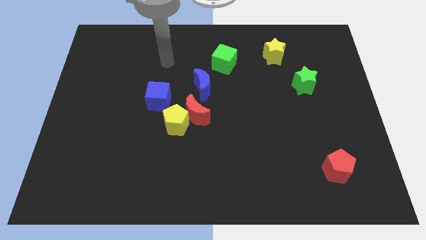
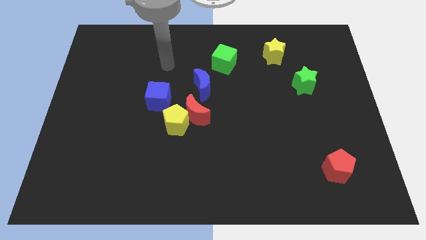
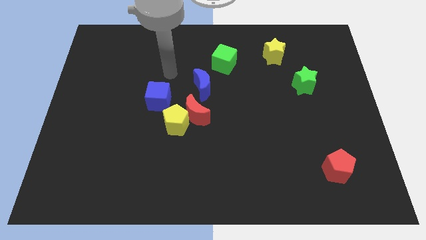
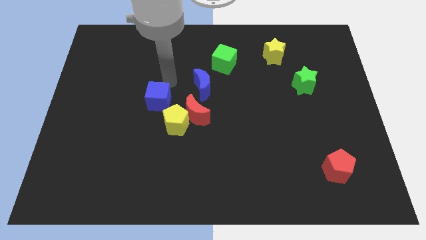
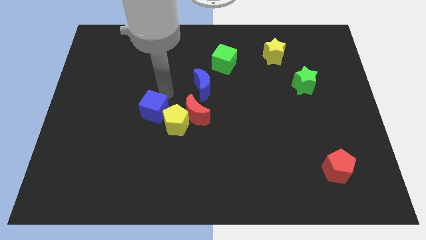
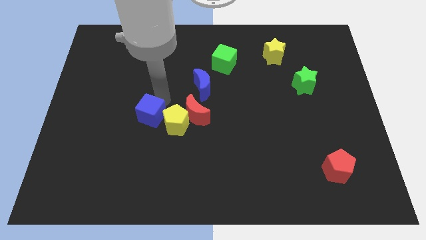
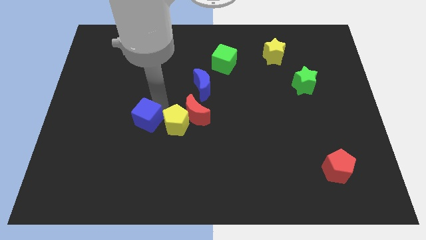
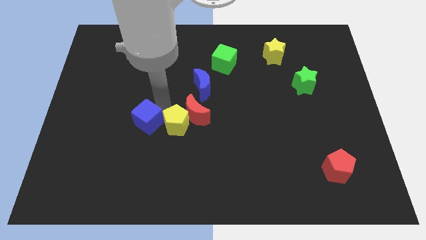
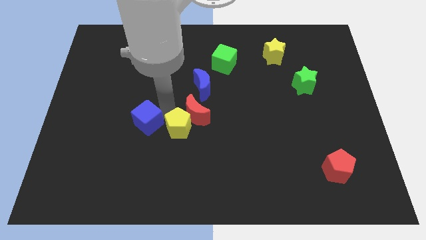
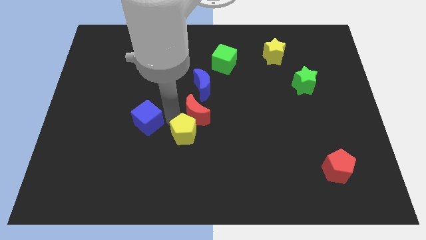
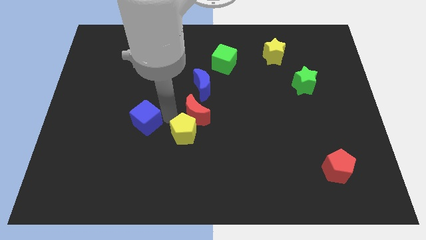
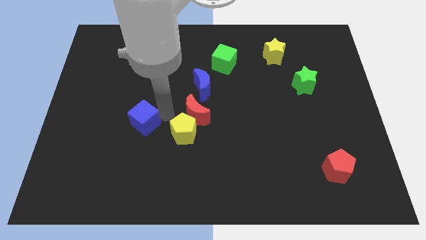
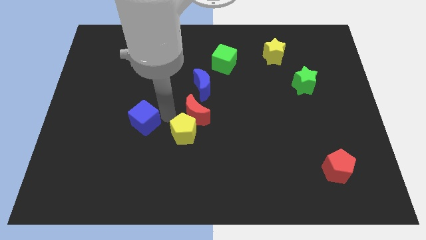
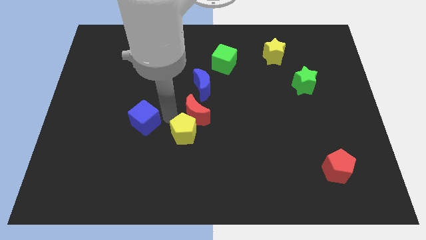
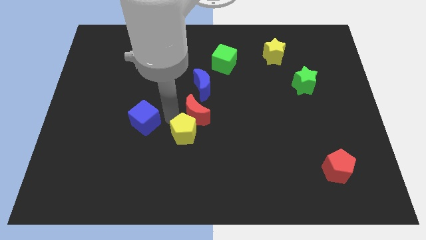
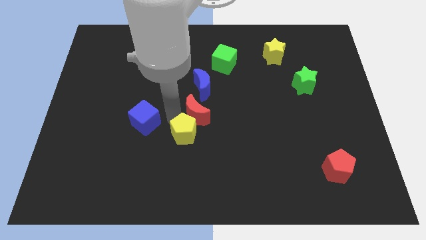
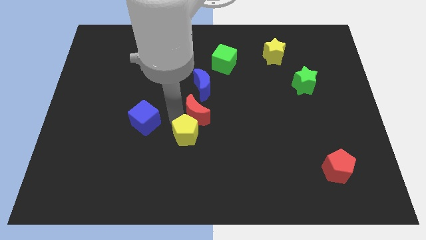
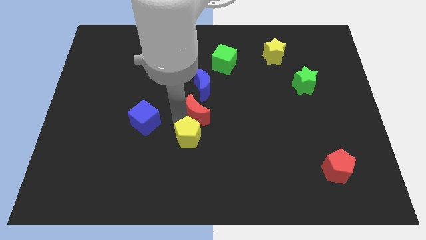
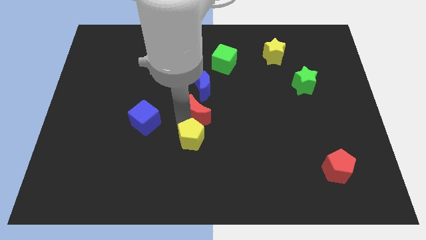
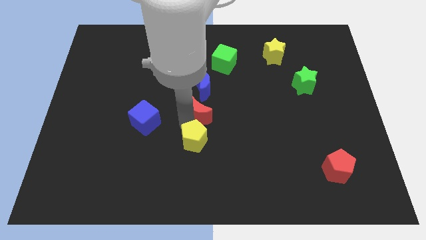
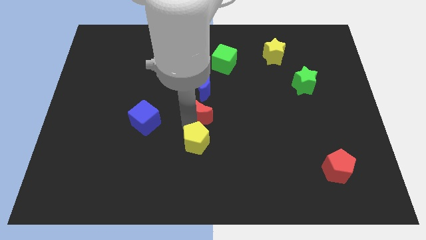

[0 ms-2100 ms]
slide the yellow pentagon downwards and right a little bit

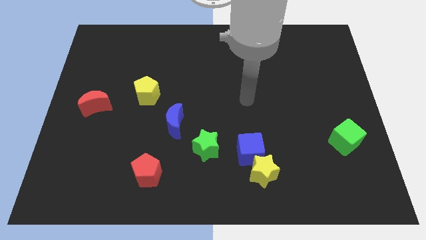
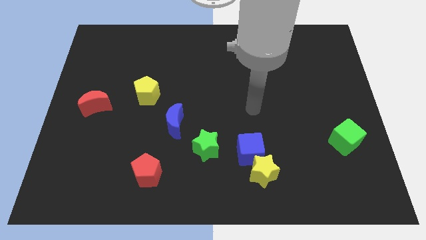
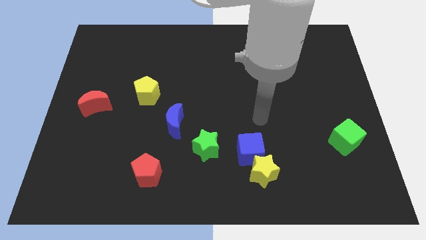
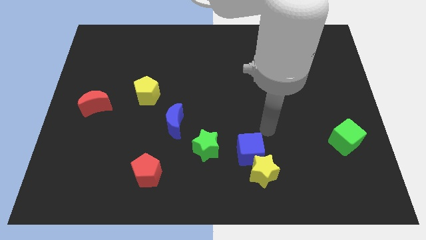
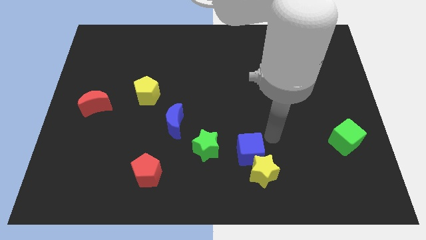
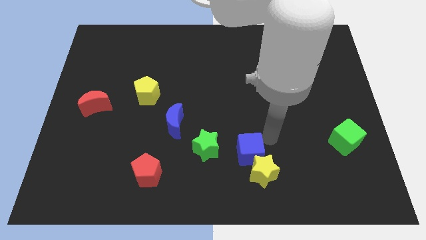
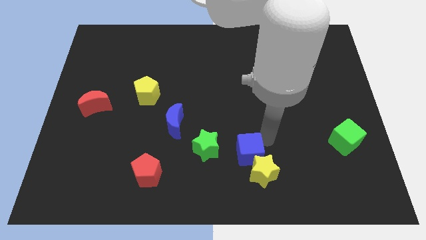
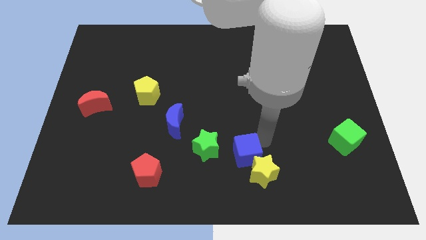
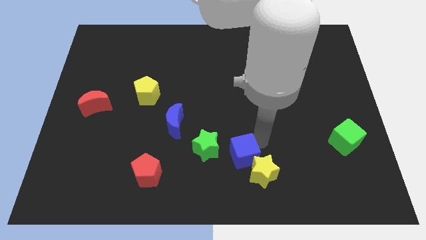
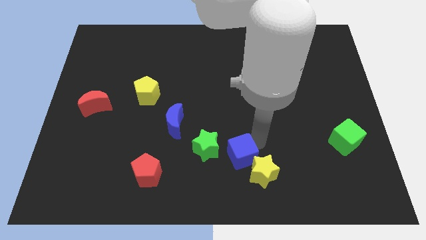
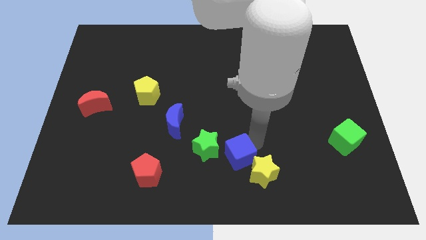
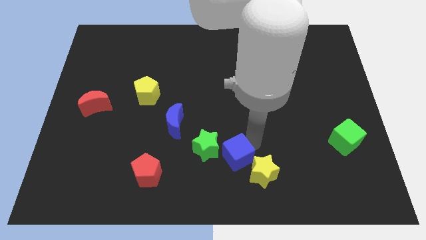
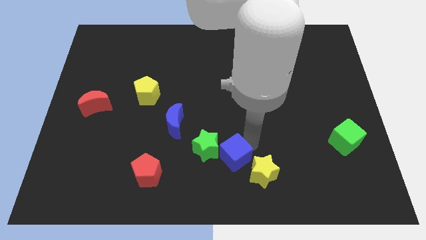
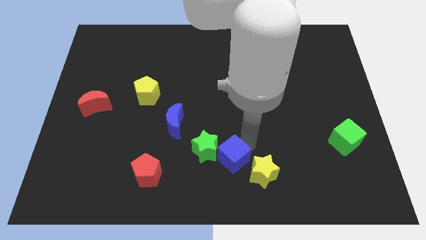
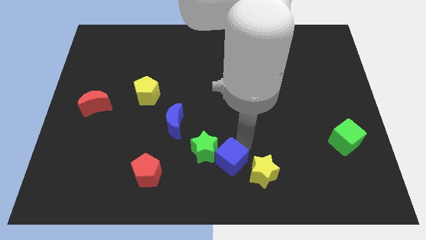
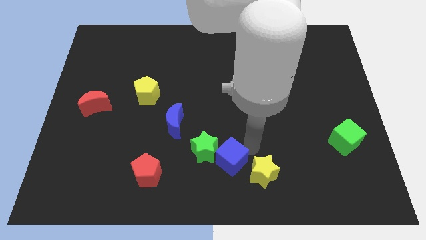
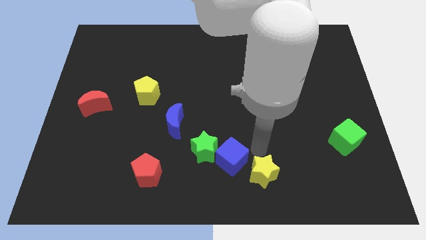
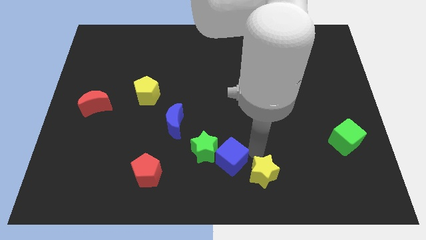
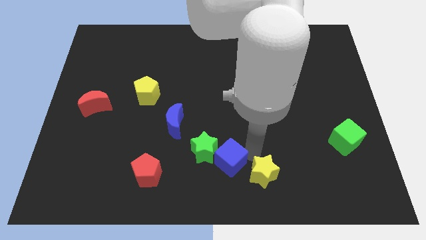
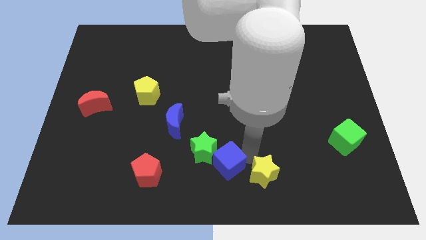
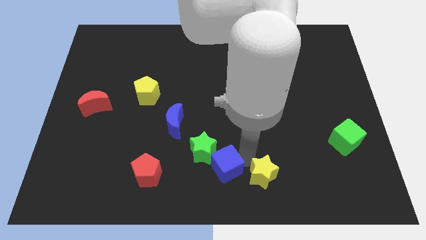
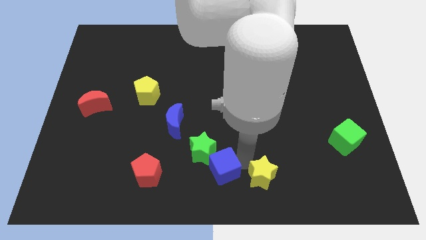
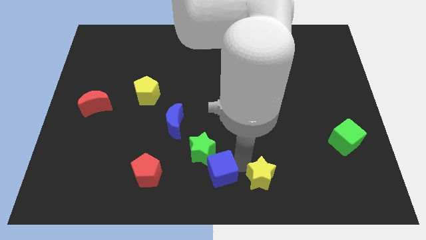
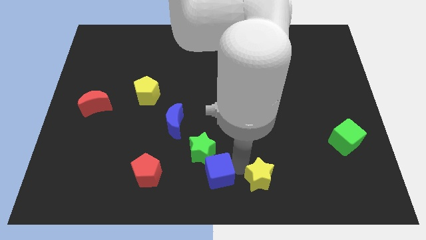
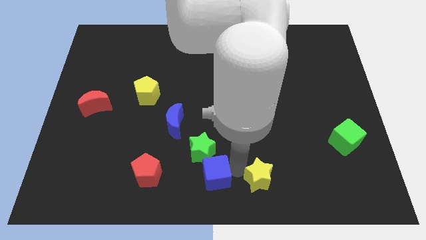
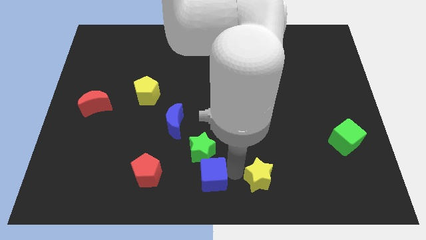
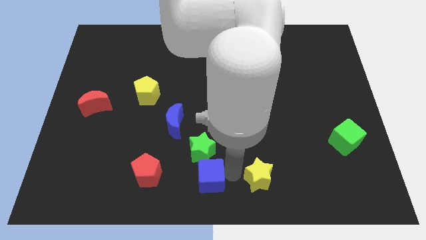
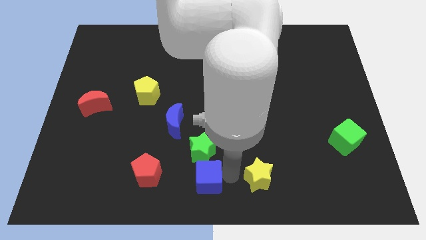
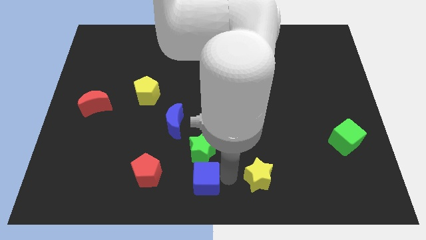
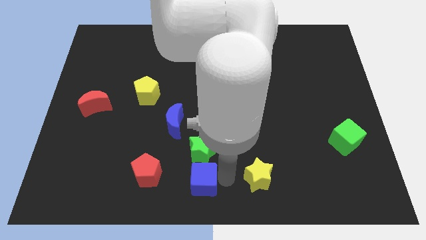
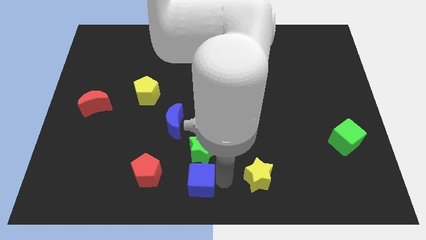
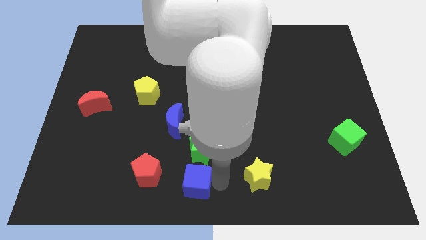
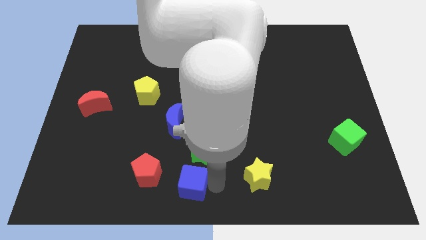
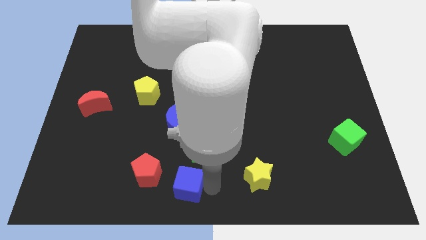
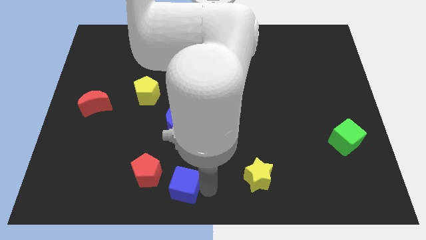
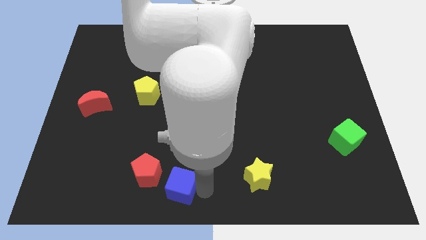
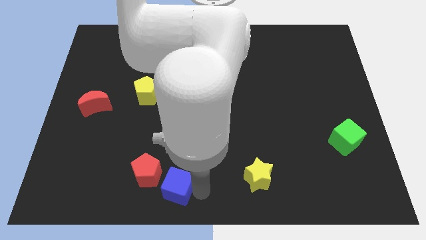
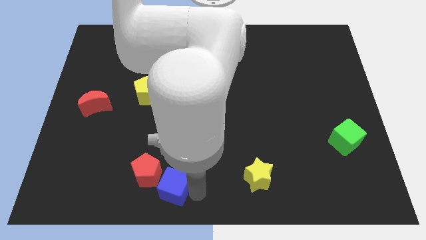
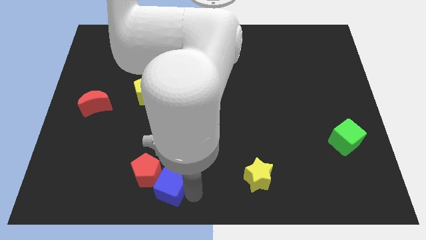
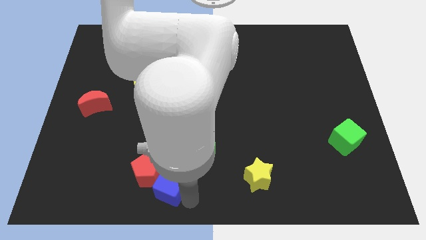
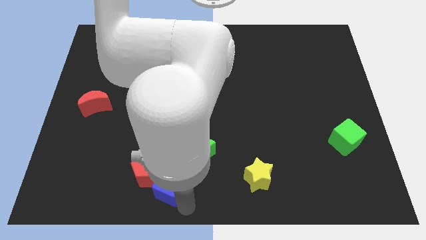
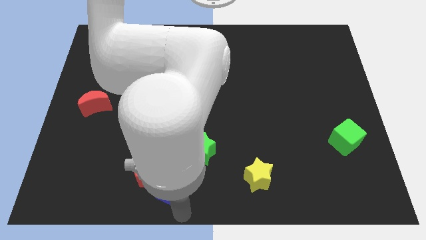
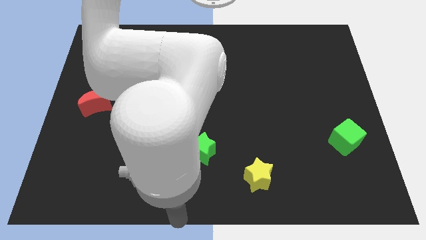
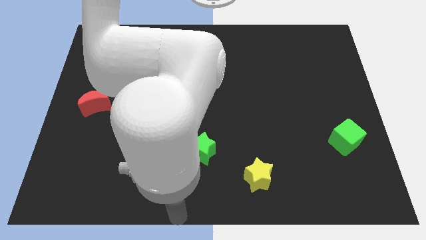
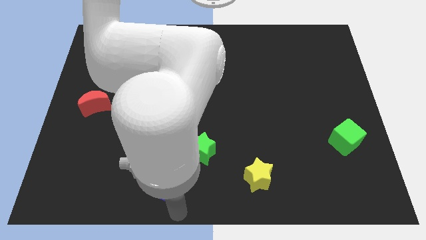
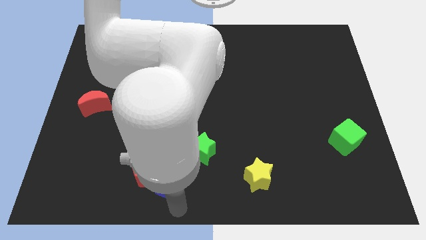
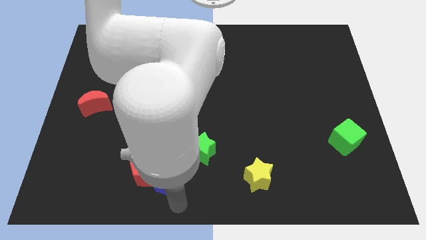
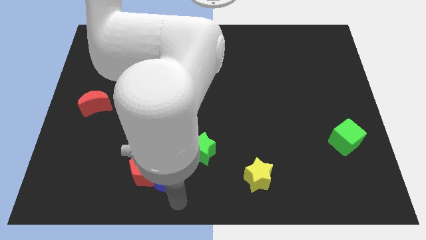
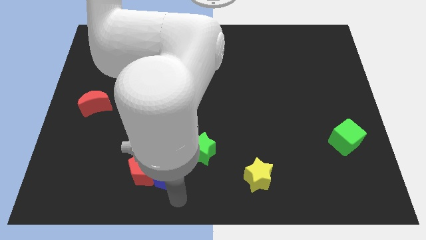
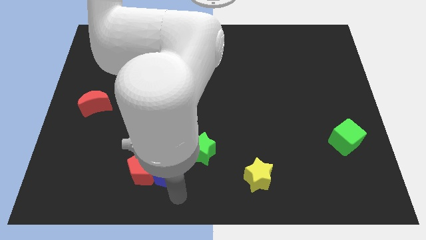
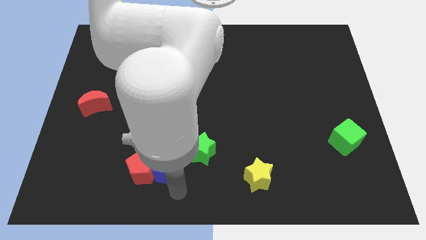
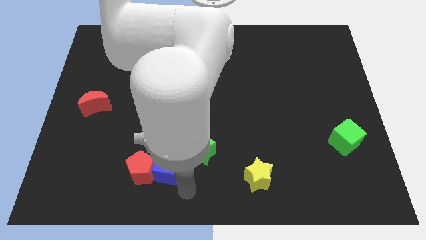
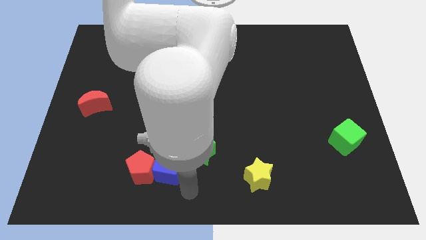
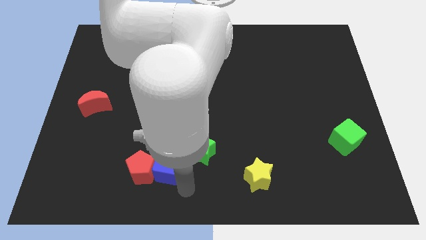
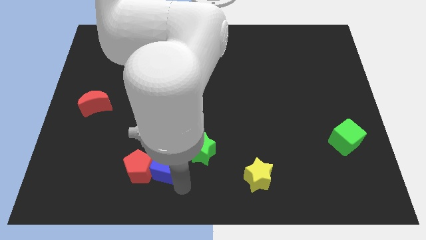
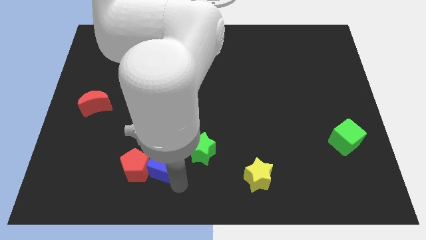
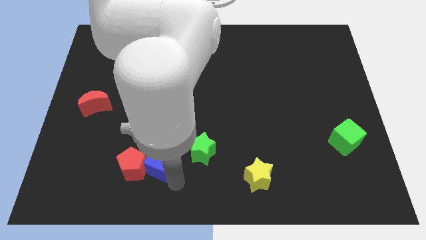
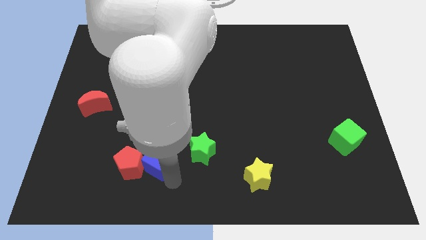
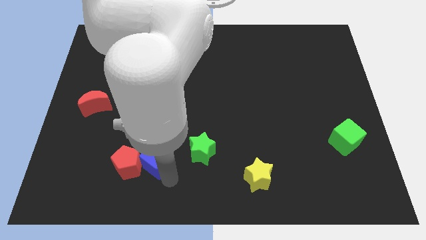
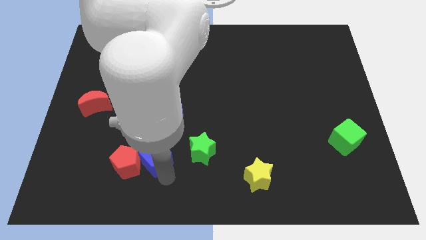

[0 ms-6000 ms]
push the blue cube left

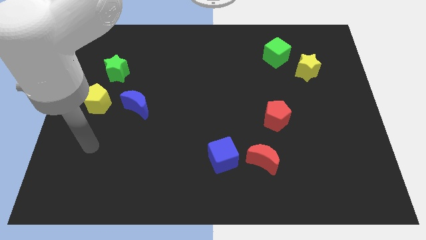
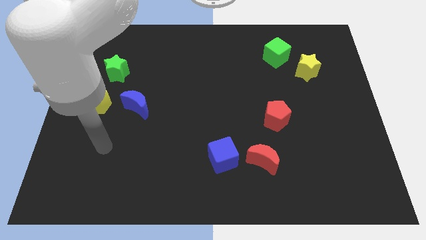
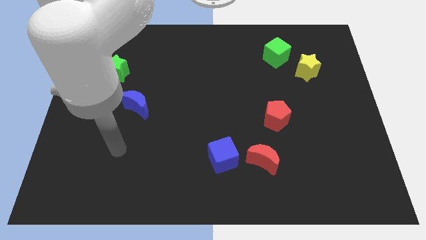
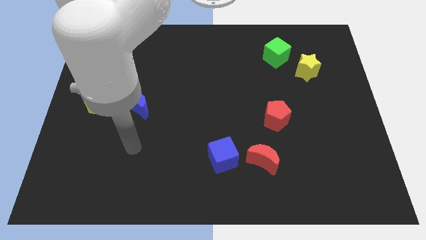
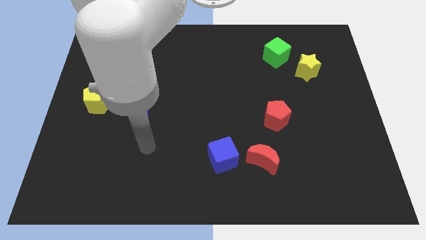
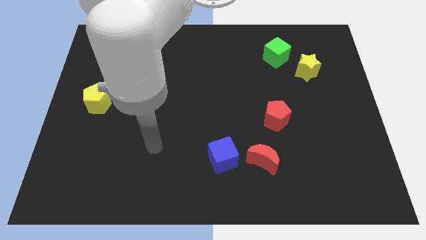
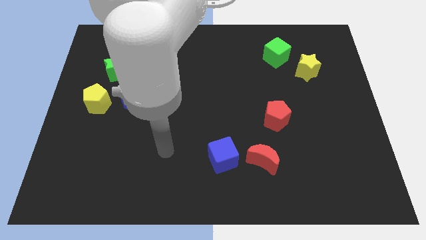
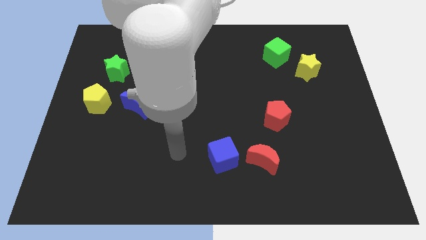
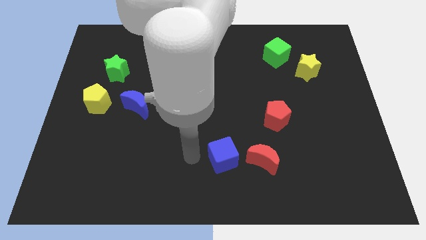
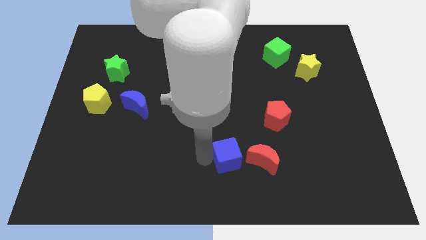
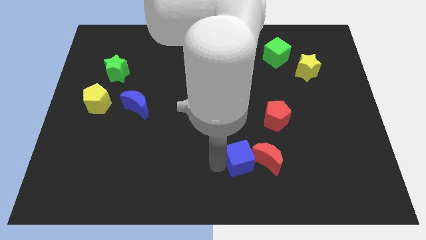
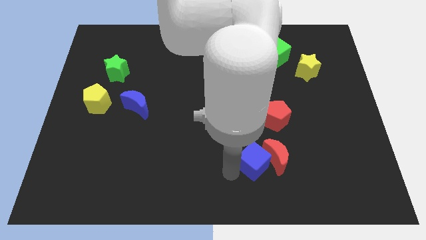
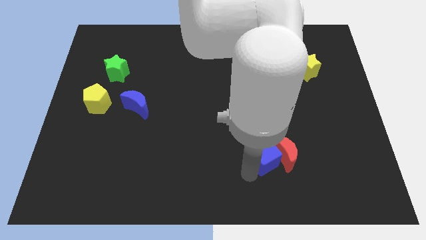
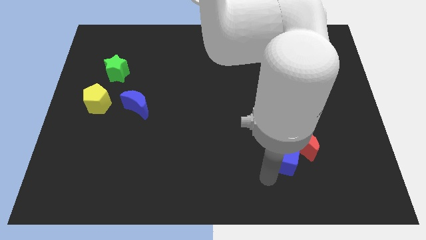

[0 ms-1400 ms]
slightly push the red moon upwards and to the right
